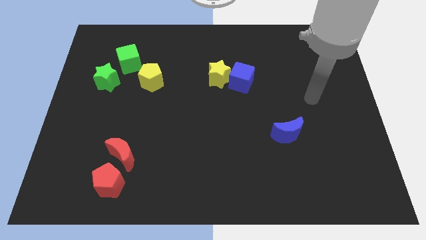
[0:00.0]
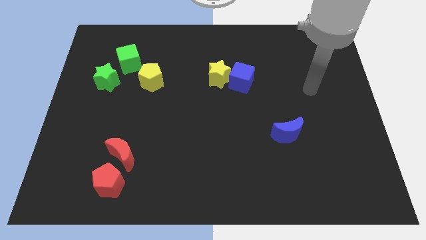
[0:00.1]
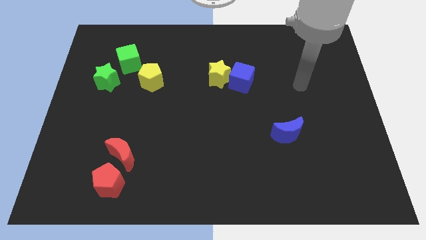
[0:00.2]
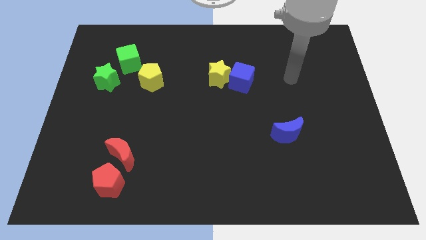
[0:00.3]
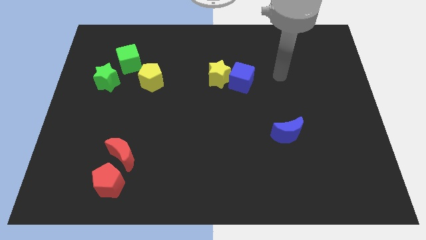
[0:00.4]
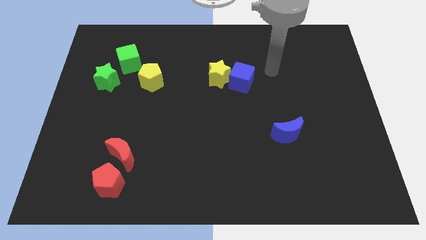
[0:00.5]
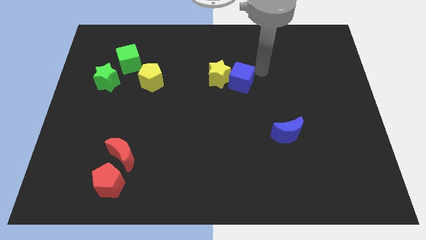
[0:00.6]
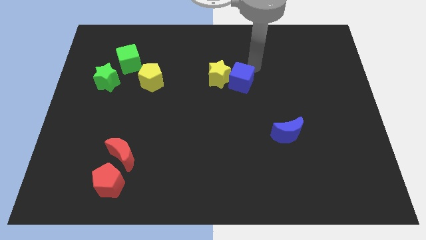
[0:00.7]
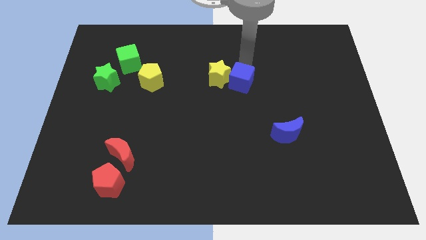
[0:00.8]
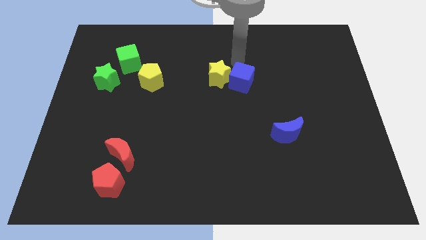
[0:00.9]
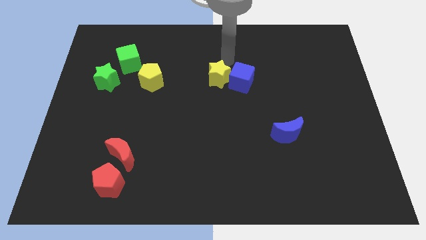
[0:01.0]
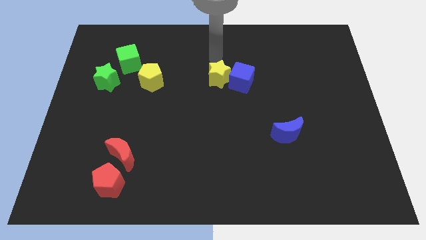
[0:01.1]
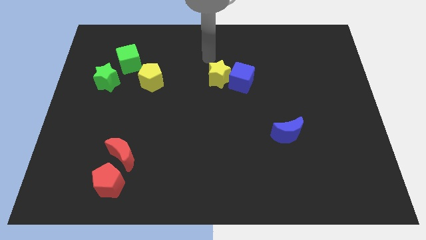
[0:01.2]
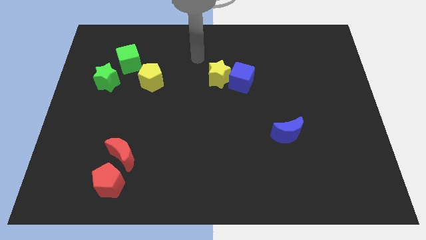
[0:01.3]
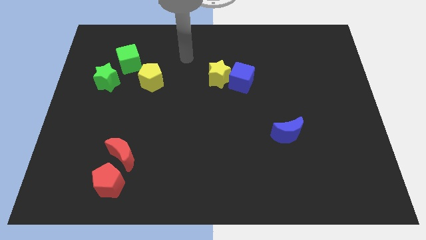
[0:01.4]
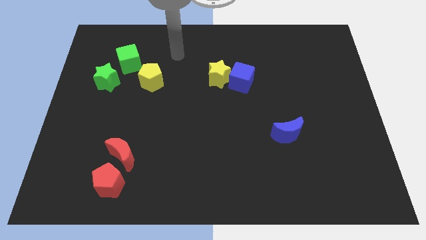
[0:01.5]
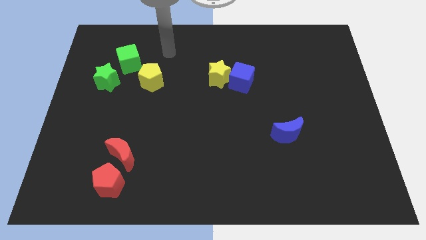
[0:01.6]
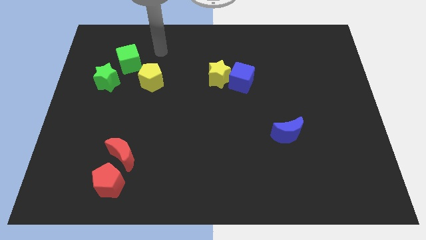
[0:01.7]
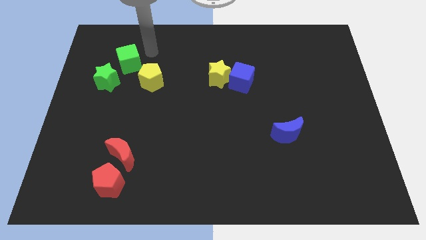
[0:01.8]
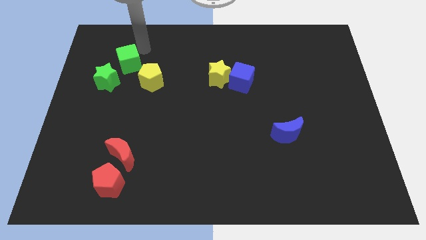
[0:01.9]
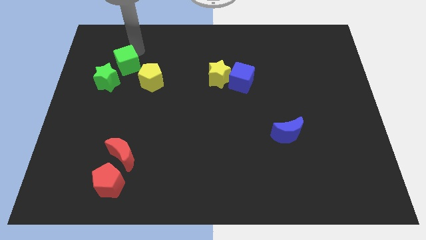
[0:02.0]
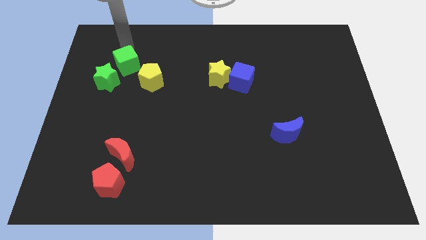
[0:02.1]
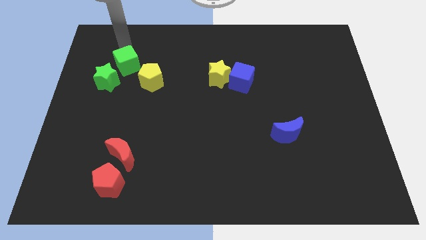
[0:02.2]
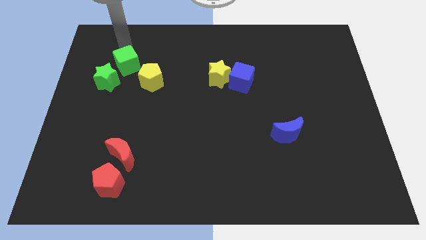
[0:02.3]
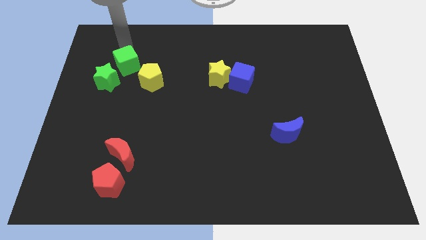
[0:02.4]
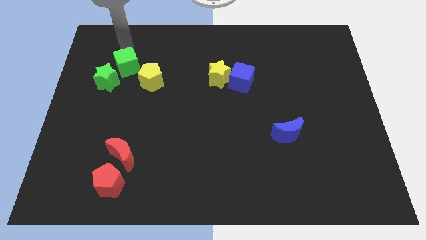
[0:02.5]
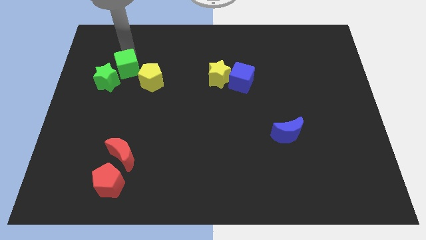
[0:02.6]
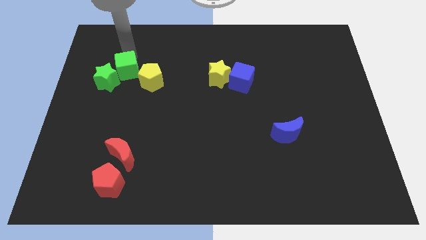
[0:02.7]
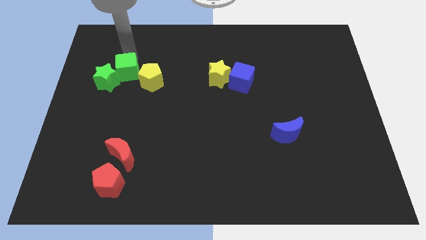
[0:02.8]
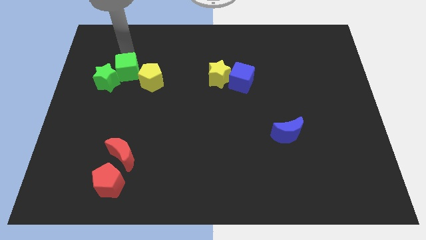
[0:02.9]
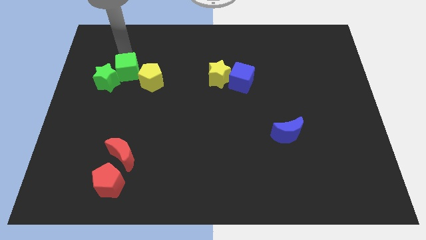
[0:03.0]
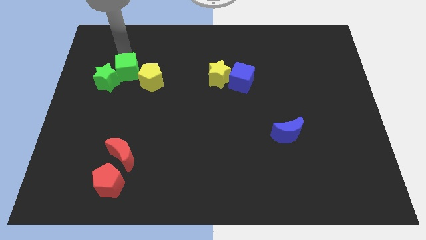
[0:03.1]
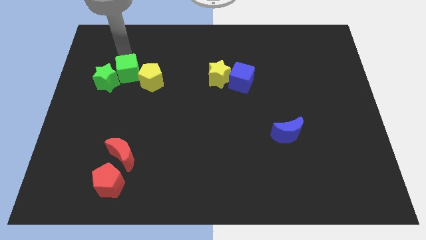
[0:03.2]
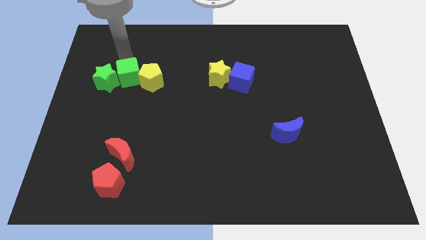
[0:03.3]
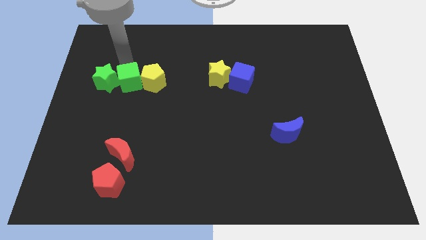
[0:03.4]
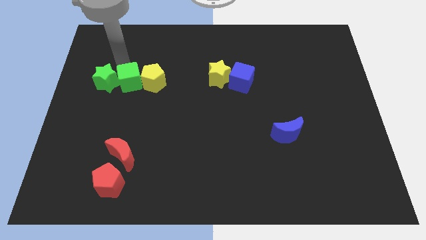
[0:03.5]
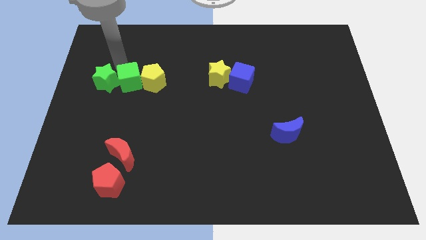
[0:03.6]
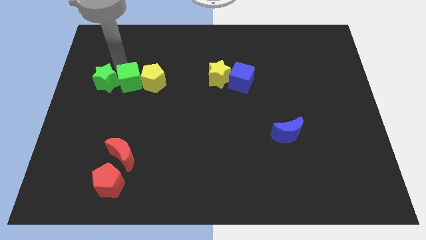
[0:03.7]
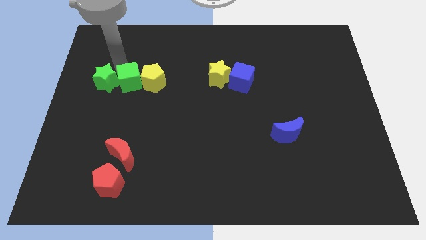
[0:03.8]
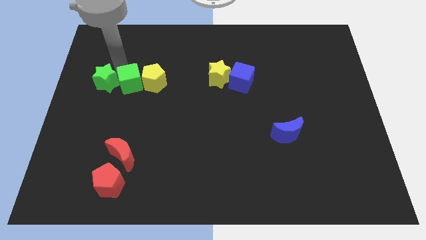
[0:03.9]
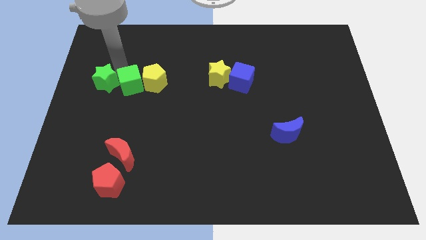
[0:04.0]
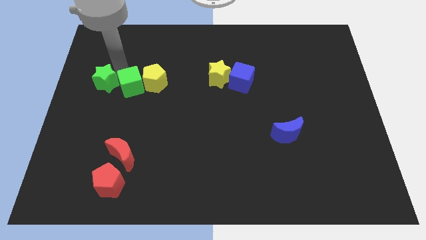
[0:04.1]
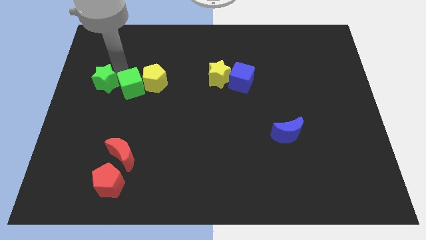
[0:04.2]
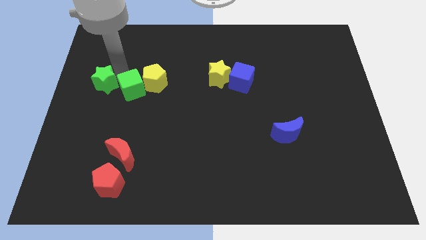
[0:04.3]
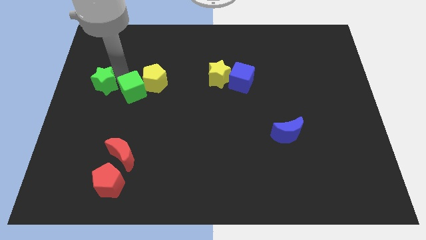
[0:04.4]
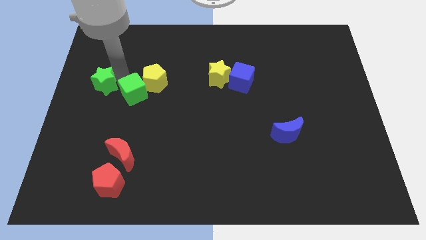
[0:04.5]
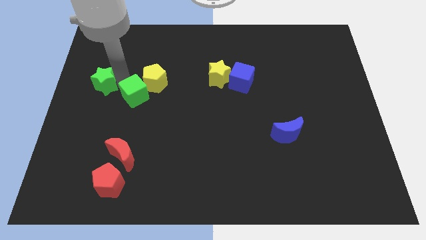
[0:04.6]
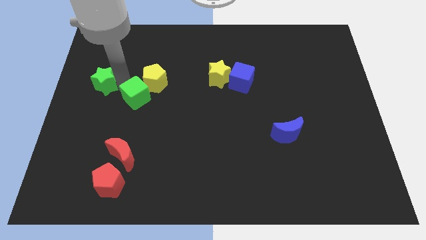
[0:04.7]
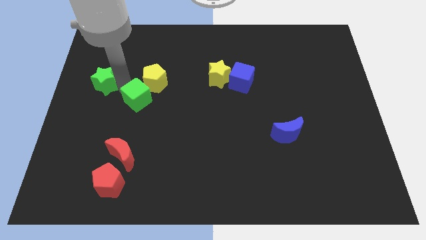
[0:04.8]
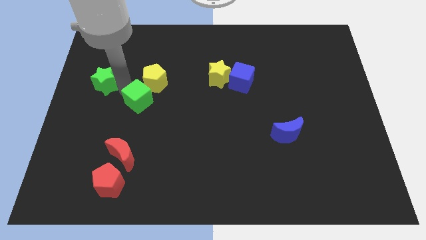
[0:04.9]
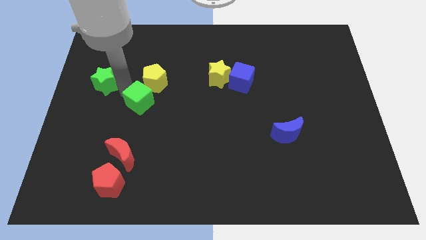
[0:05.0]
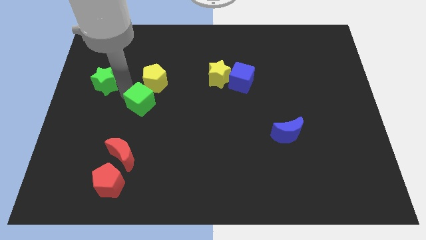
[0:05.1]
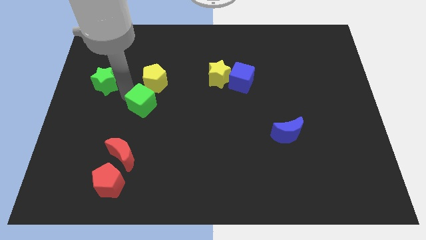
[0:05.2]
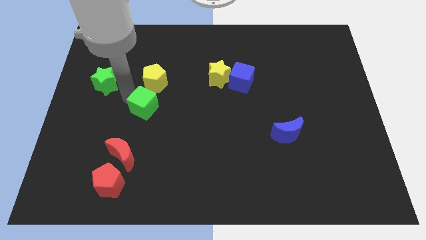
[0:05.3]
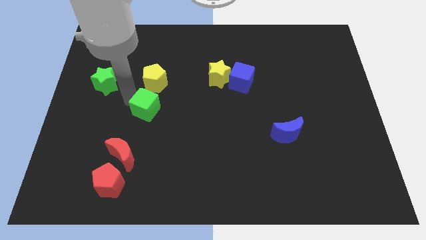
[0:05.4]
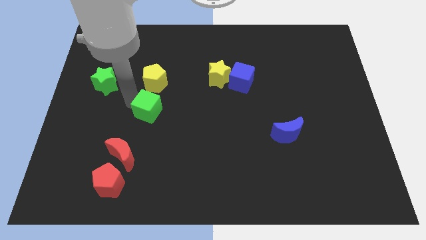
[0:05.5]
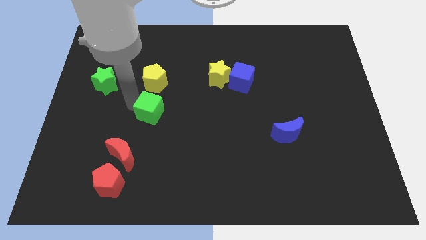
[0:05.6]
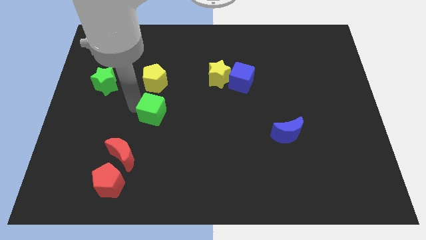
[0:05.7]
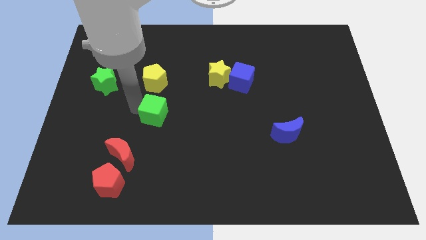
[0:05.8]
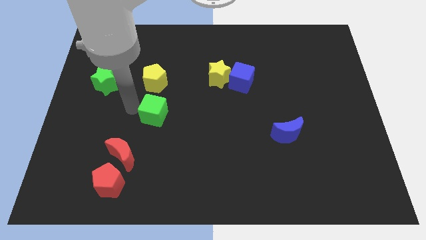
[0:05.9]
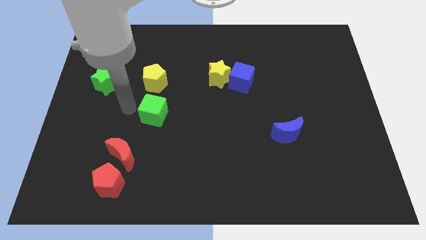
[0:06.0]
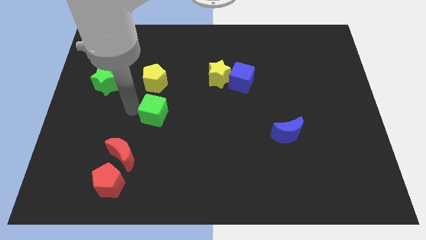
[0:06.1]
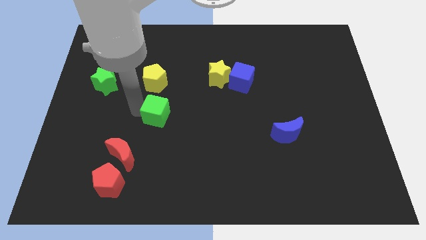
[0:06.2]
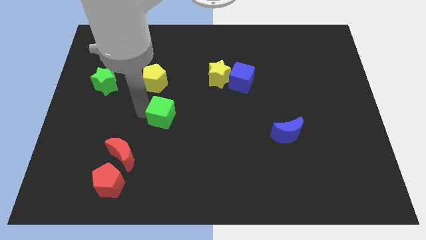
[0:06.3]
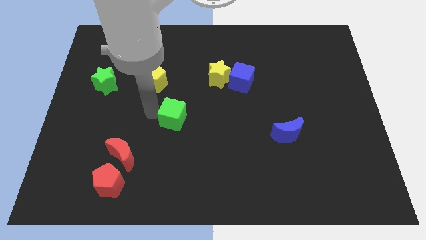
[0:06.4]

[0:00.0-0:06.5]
slide the green cube diagonally down and to the right

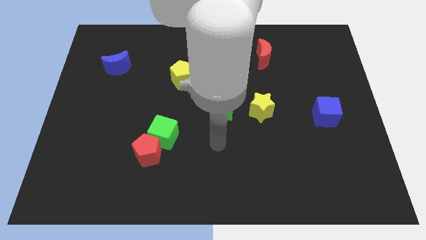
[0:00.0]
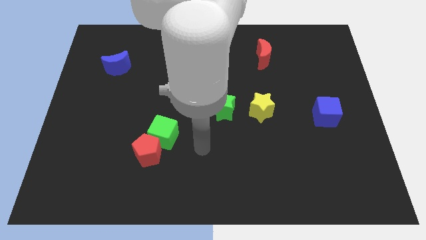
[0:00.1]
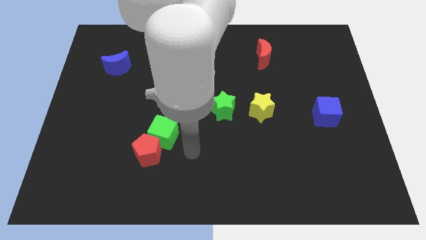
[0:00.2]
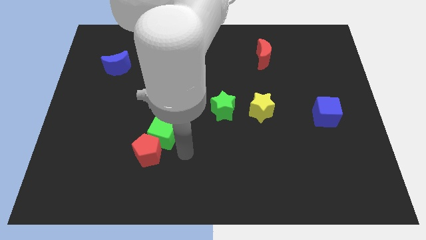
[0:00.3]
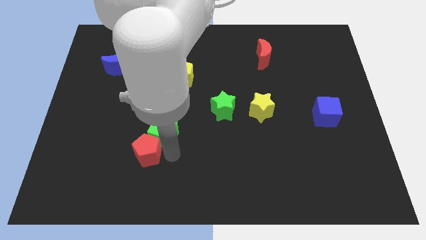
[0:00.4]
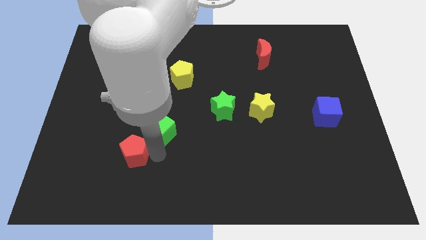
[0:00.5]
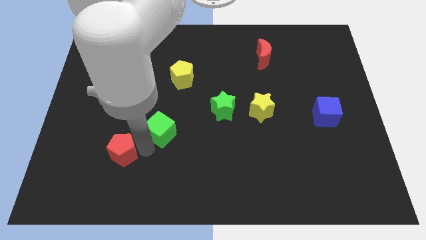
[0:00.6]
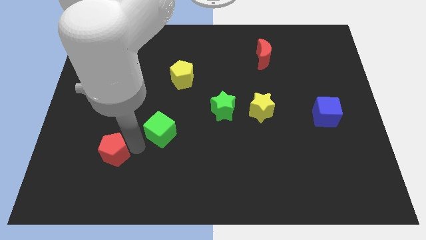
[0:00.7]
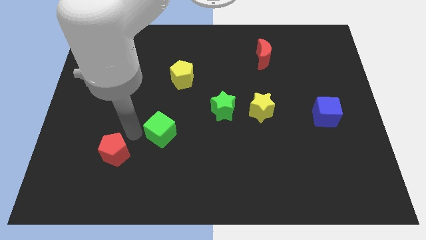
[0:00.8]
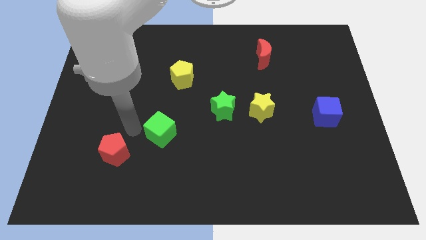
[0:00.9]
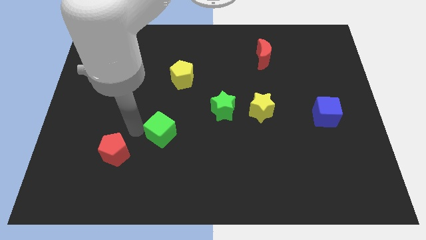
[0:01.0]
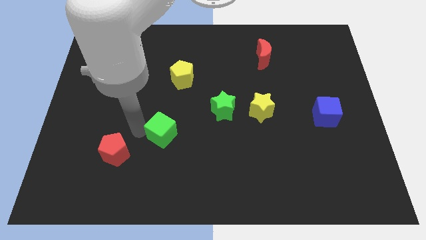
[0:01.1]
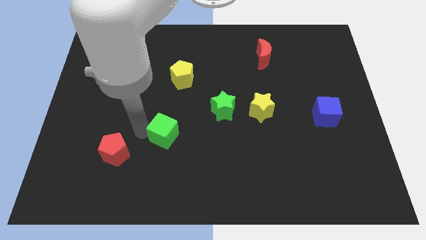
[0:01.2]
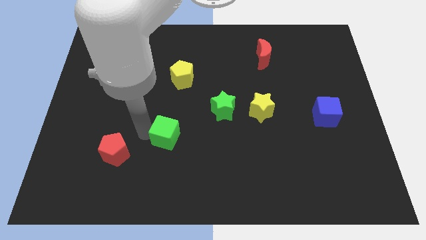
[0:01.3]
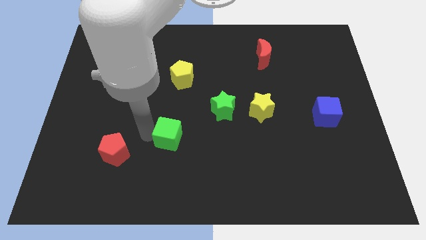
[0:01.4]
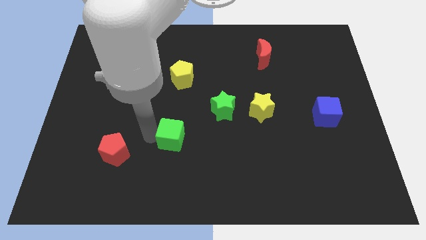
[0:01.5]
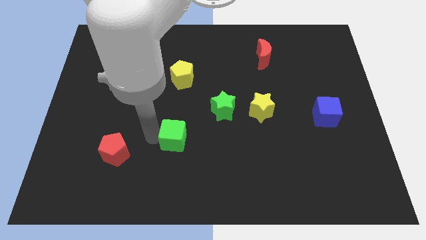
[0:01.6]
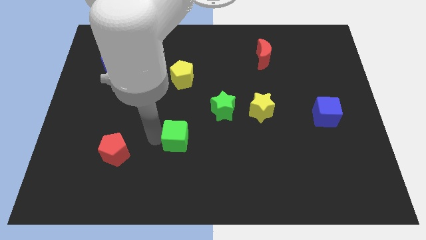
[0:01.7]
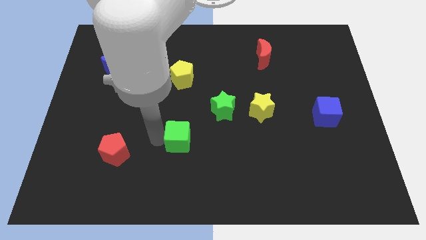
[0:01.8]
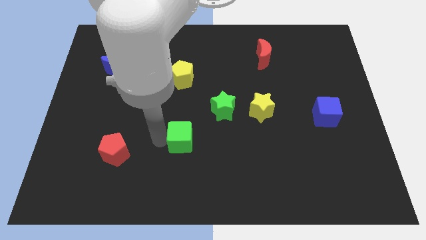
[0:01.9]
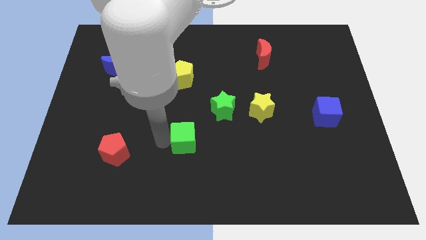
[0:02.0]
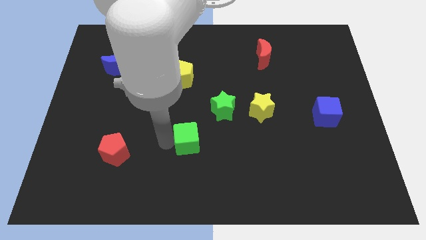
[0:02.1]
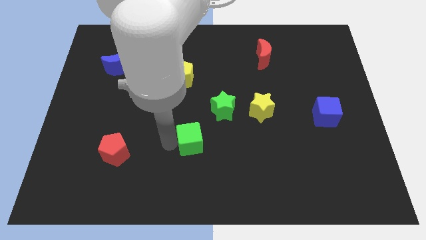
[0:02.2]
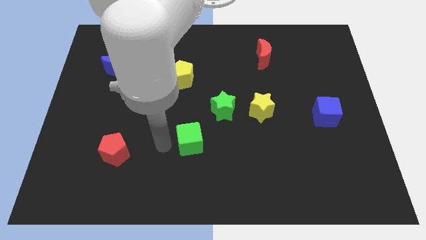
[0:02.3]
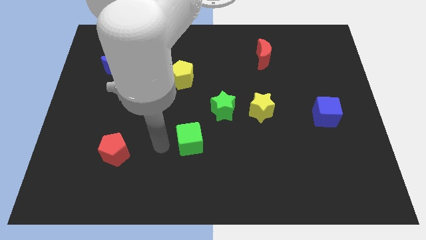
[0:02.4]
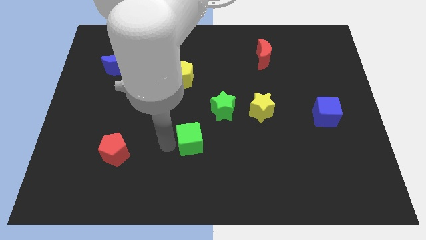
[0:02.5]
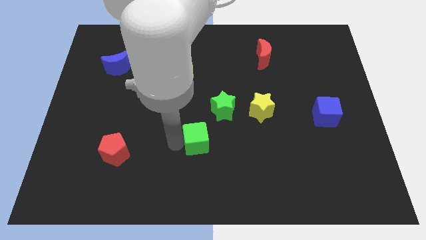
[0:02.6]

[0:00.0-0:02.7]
slightly push the green cube right
